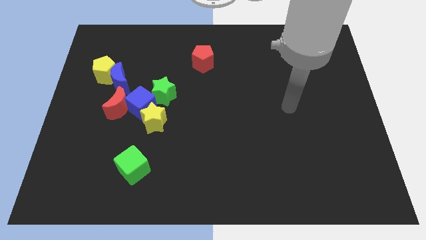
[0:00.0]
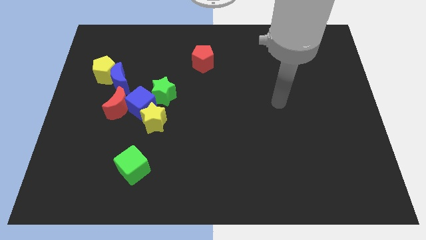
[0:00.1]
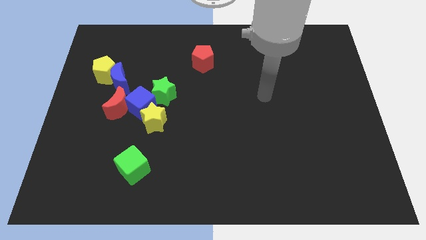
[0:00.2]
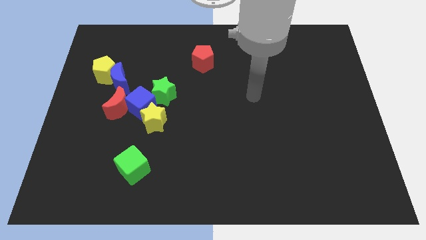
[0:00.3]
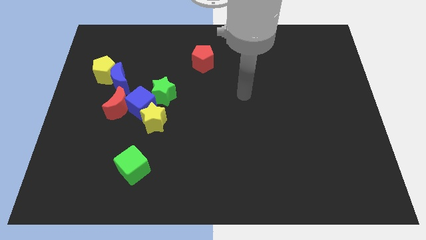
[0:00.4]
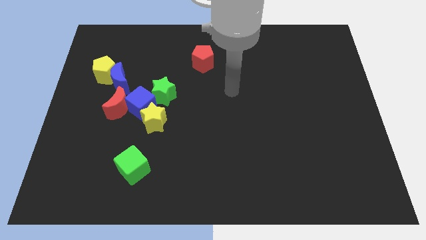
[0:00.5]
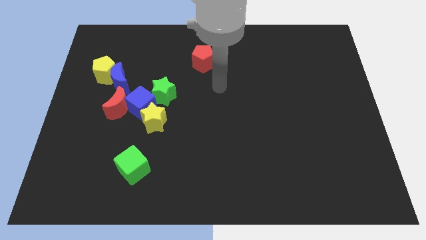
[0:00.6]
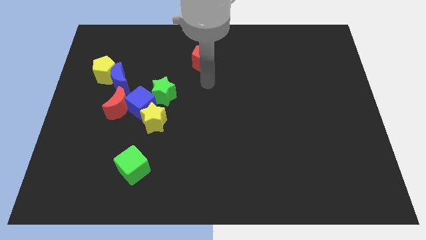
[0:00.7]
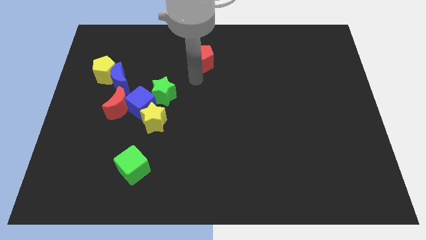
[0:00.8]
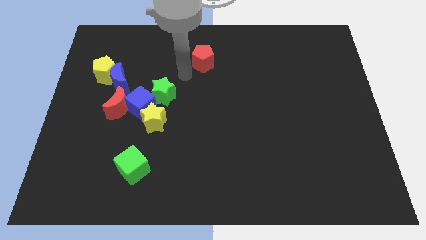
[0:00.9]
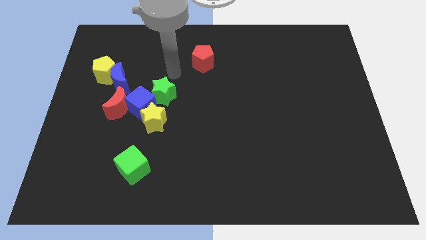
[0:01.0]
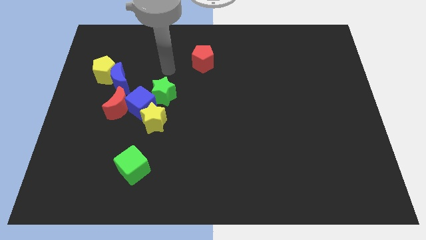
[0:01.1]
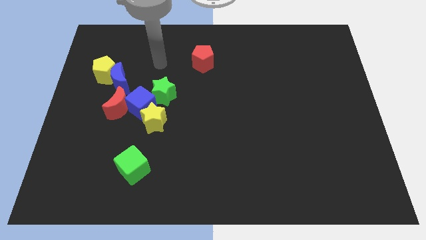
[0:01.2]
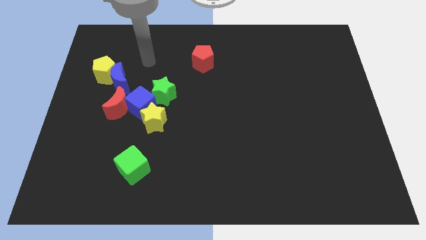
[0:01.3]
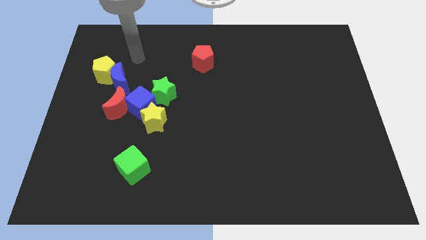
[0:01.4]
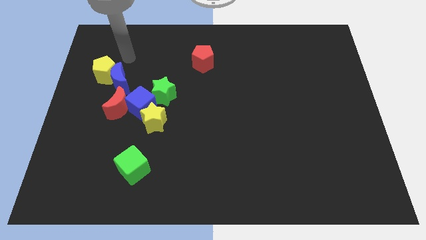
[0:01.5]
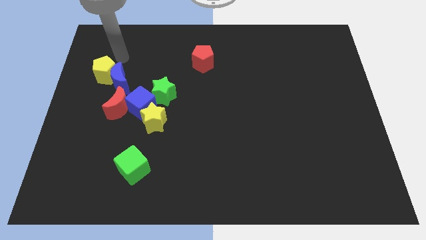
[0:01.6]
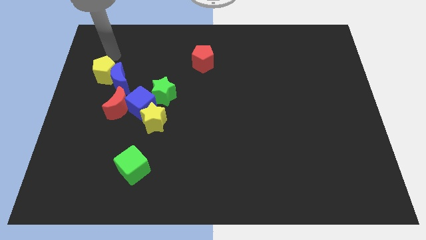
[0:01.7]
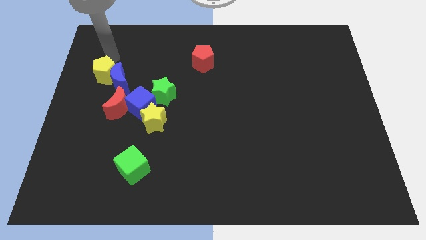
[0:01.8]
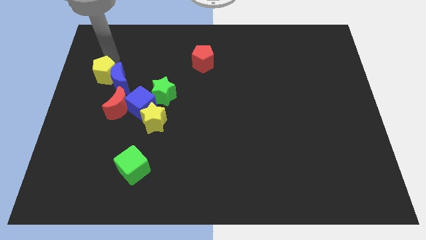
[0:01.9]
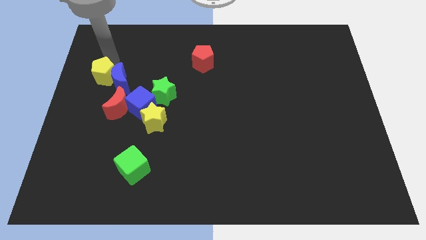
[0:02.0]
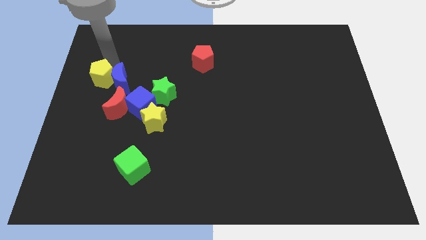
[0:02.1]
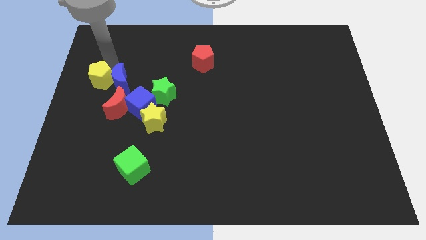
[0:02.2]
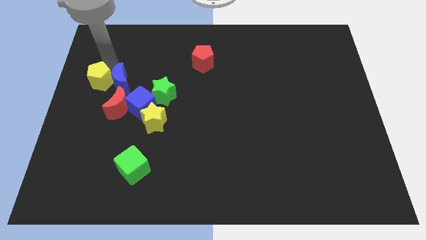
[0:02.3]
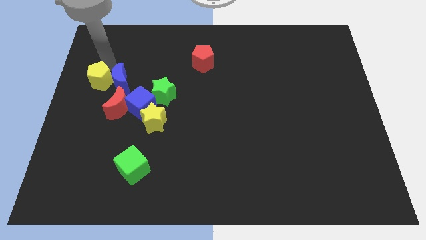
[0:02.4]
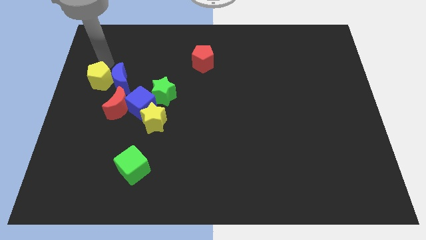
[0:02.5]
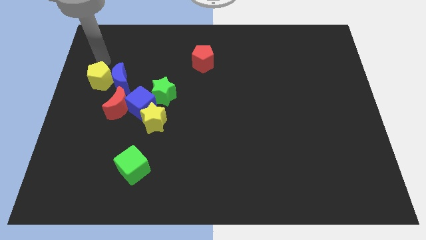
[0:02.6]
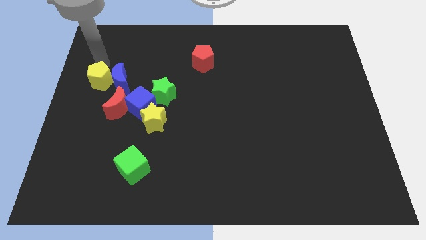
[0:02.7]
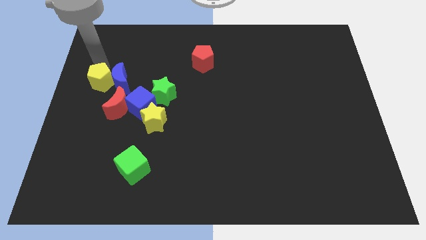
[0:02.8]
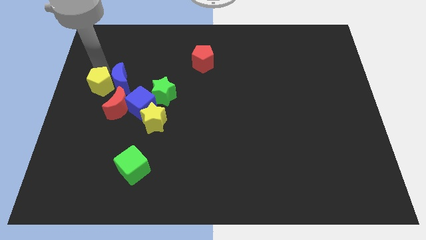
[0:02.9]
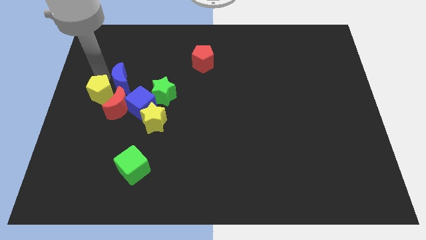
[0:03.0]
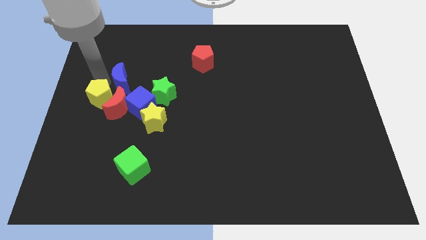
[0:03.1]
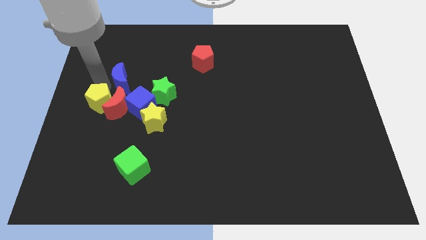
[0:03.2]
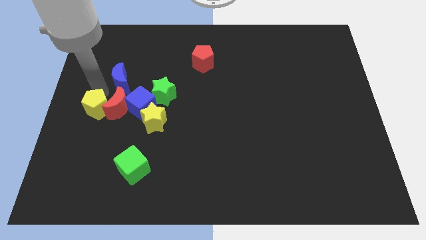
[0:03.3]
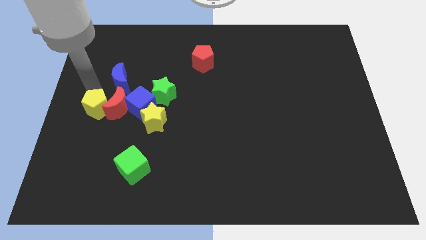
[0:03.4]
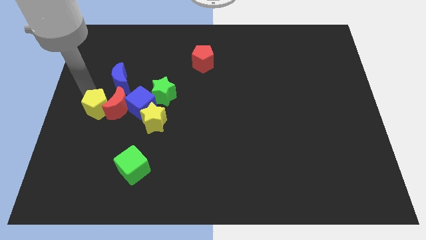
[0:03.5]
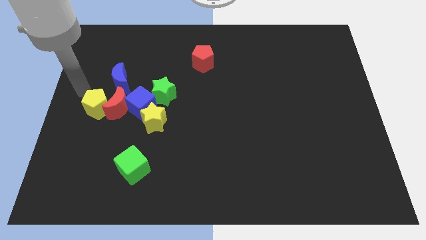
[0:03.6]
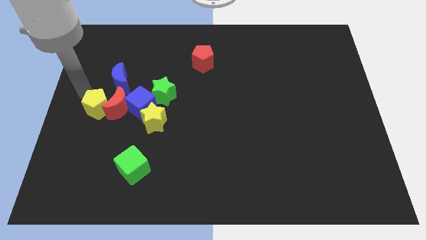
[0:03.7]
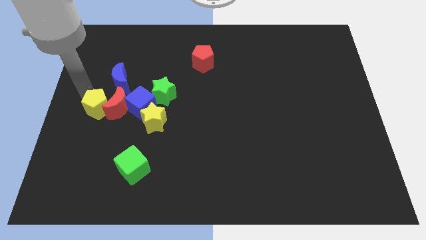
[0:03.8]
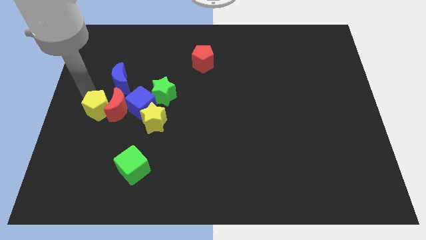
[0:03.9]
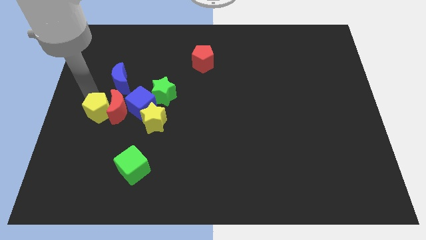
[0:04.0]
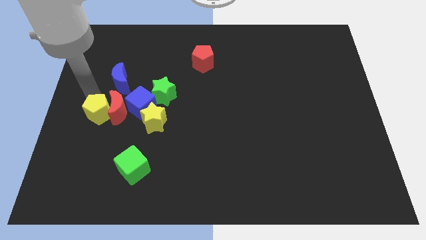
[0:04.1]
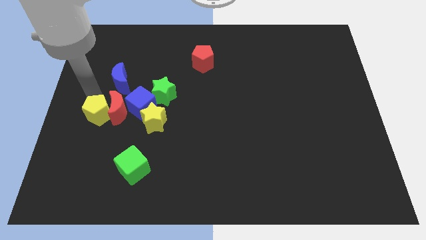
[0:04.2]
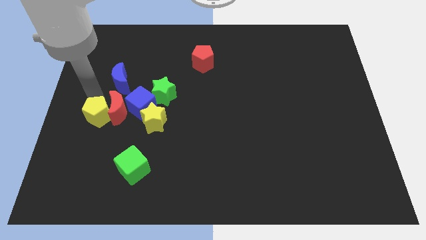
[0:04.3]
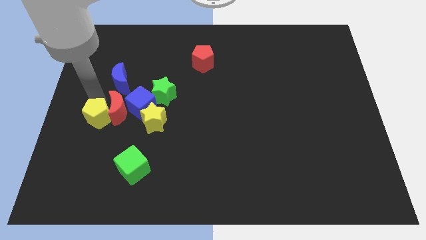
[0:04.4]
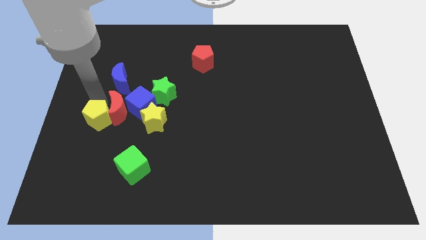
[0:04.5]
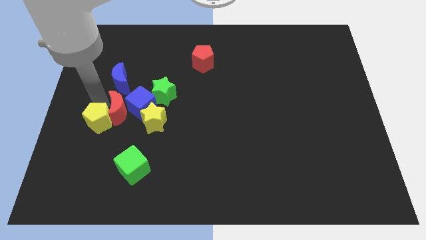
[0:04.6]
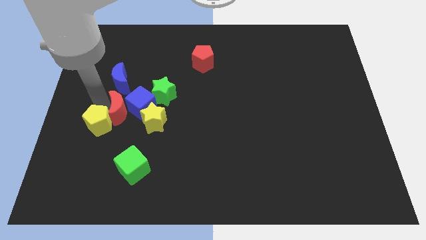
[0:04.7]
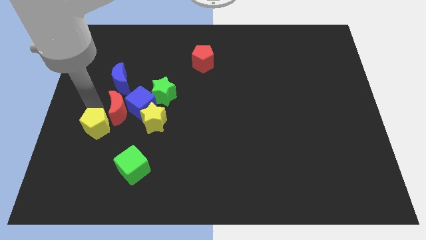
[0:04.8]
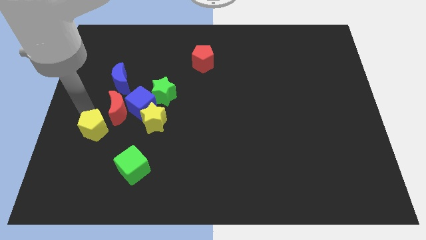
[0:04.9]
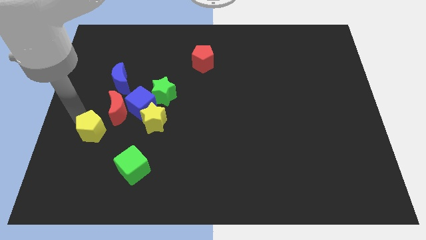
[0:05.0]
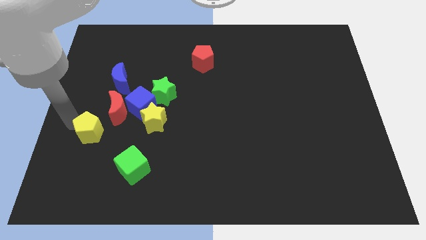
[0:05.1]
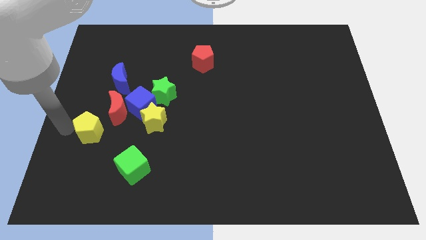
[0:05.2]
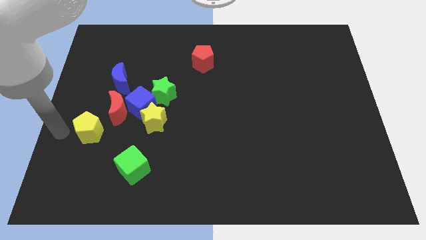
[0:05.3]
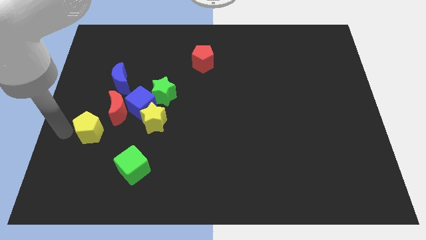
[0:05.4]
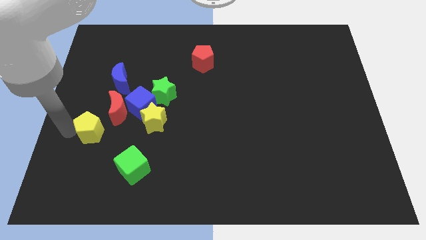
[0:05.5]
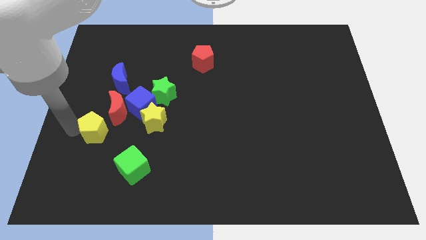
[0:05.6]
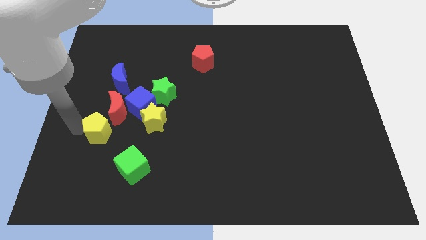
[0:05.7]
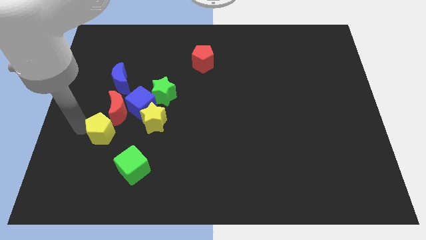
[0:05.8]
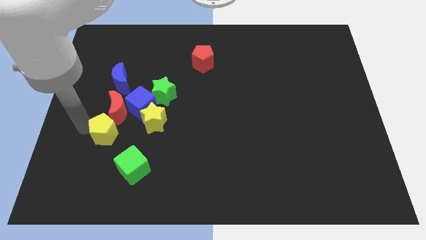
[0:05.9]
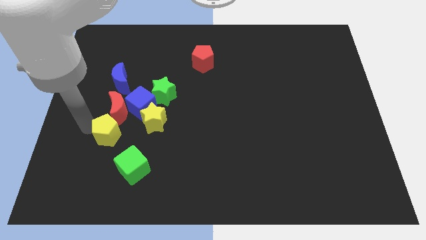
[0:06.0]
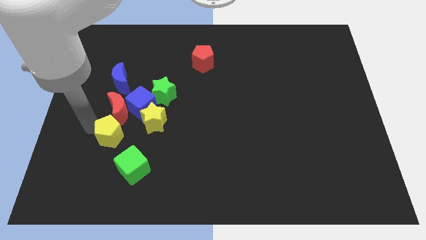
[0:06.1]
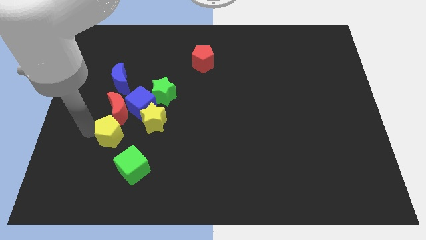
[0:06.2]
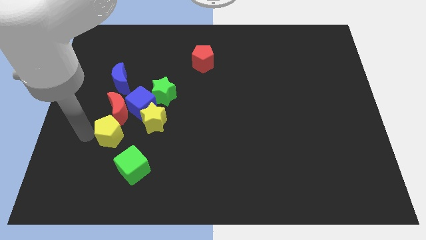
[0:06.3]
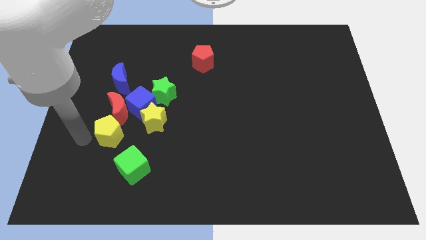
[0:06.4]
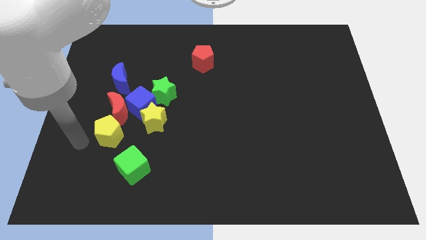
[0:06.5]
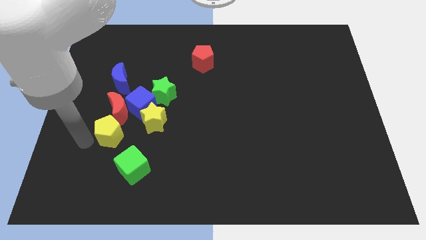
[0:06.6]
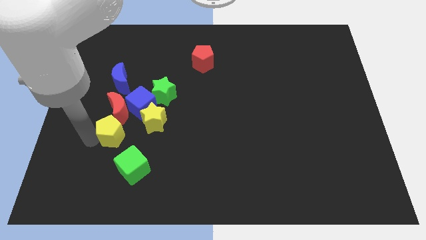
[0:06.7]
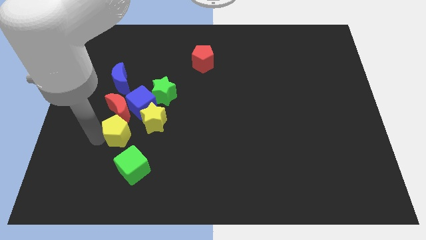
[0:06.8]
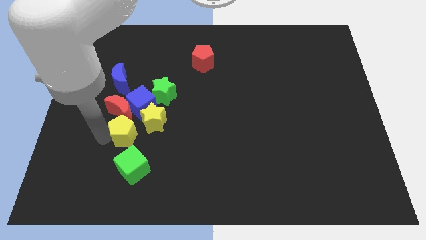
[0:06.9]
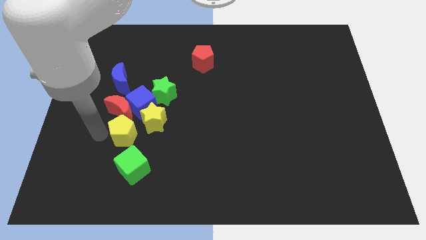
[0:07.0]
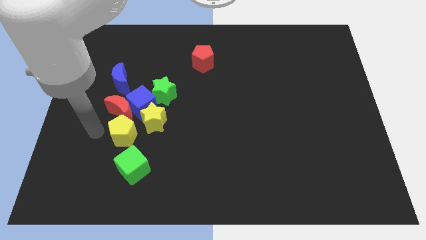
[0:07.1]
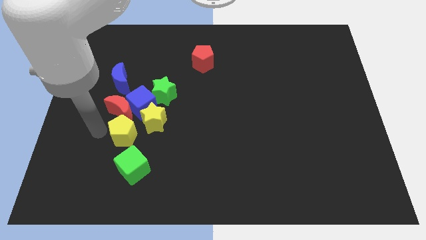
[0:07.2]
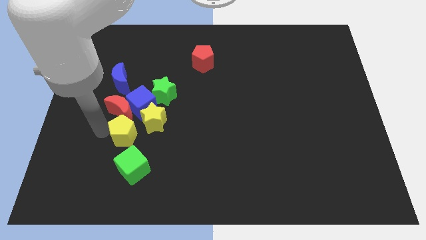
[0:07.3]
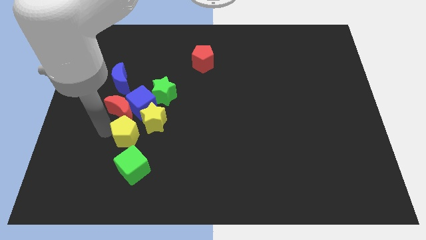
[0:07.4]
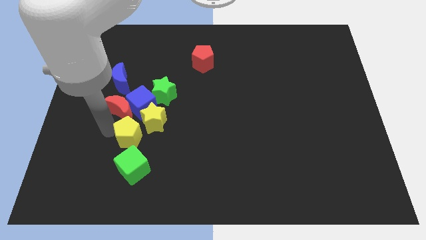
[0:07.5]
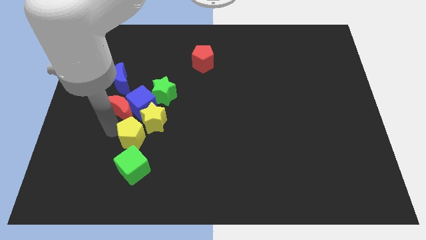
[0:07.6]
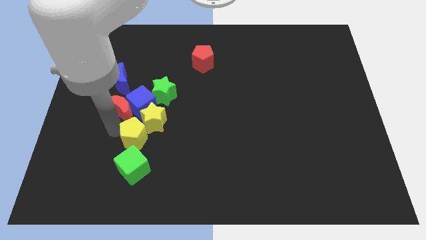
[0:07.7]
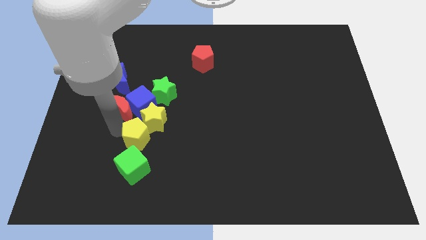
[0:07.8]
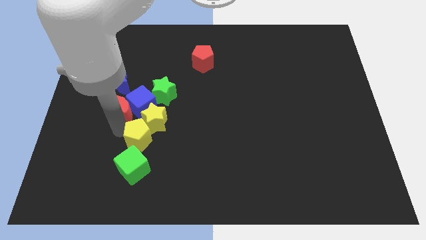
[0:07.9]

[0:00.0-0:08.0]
slide the yellow pentagon downwards and right diagonally

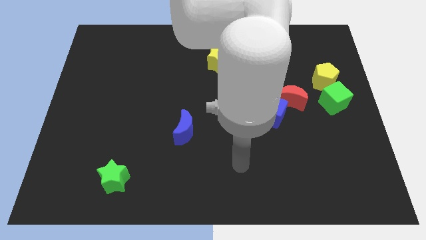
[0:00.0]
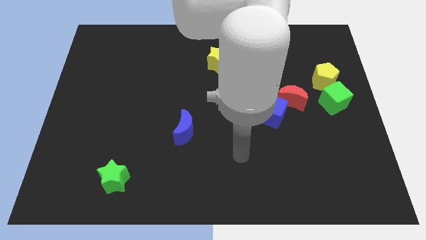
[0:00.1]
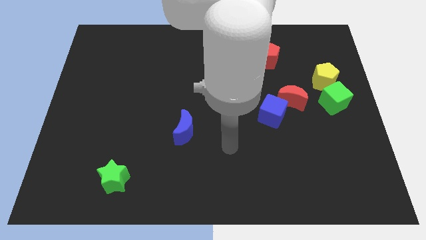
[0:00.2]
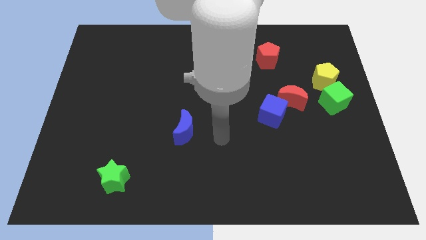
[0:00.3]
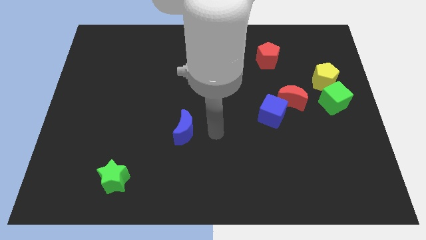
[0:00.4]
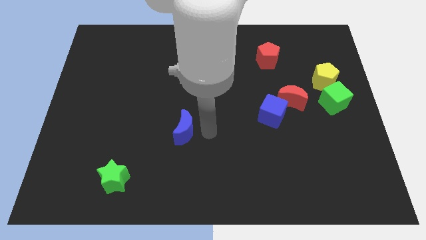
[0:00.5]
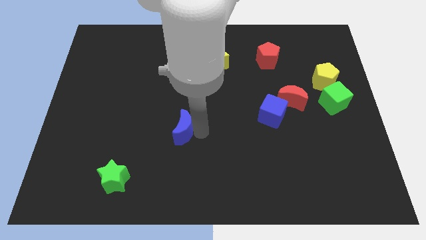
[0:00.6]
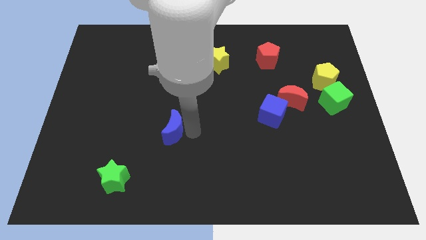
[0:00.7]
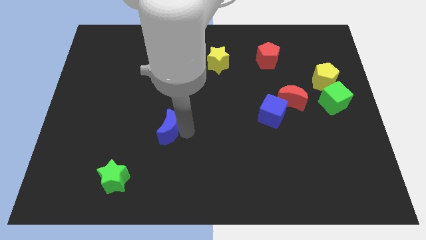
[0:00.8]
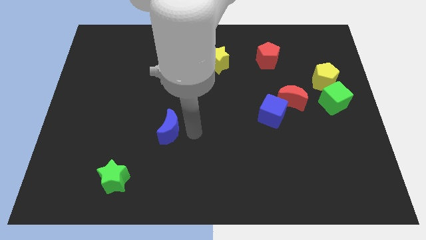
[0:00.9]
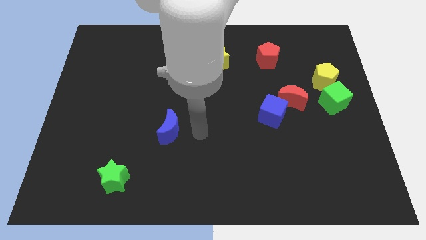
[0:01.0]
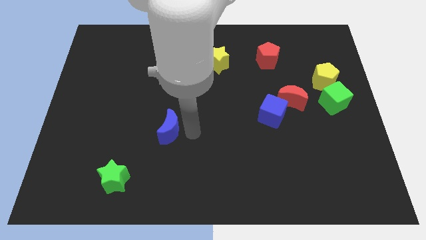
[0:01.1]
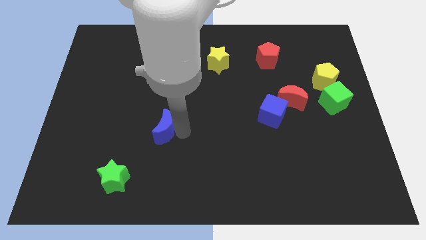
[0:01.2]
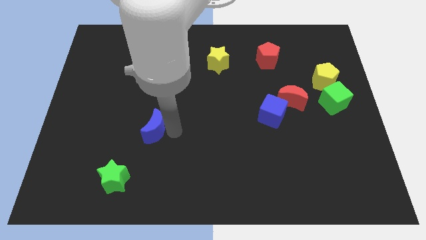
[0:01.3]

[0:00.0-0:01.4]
move the blue moon left slightly
